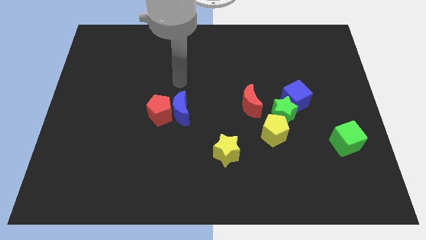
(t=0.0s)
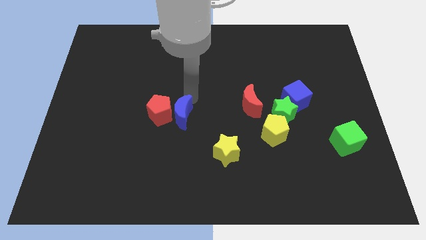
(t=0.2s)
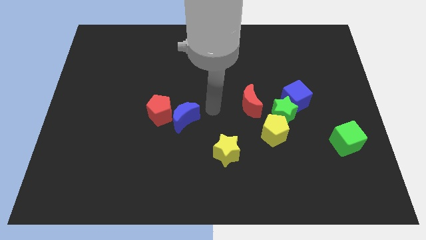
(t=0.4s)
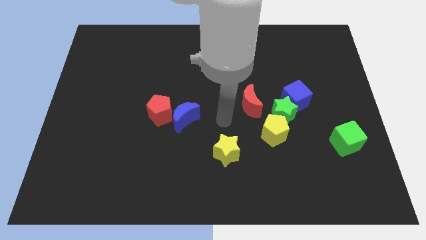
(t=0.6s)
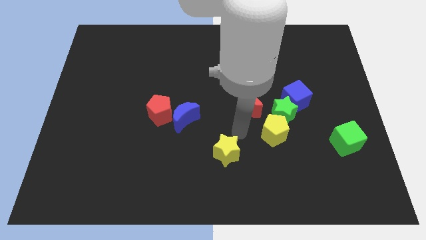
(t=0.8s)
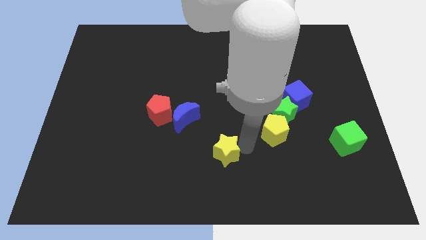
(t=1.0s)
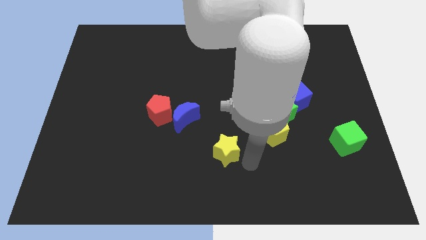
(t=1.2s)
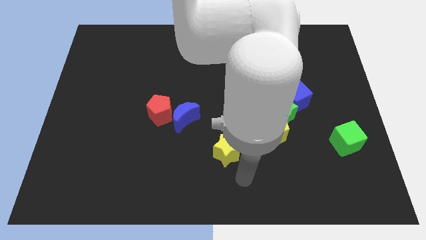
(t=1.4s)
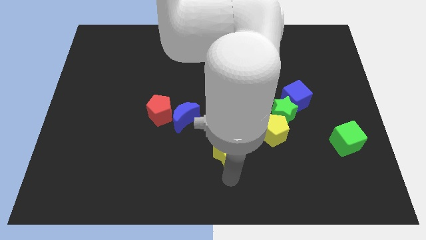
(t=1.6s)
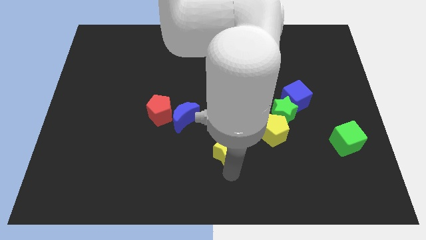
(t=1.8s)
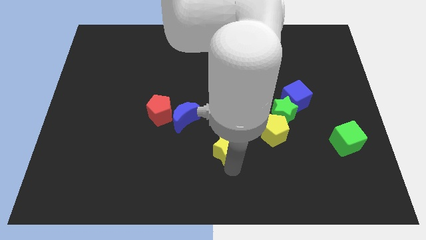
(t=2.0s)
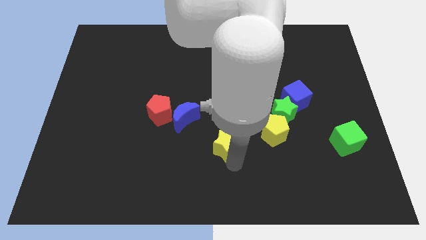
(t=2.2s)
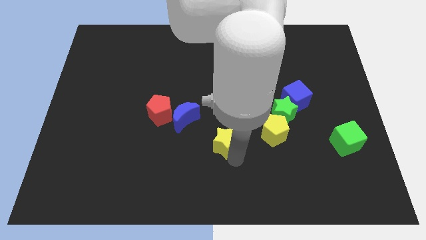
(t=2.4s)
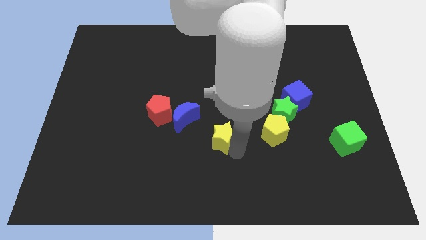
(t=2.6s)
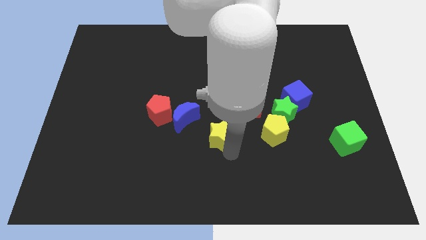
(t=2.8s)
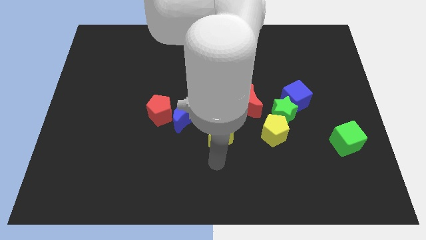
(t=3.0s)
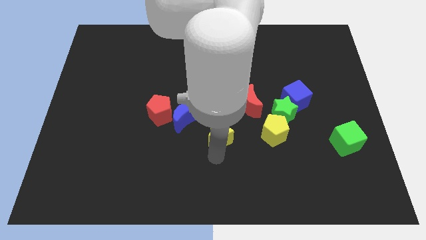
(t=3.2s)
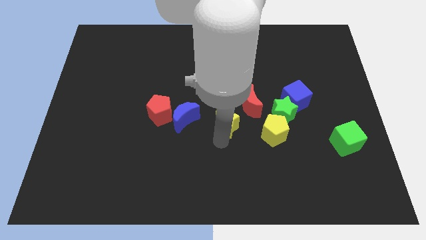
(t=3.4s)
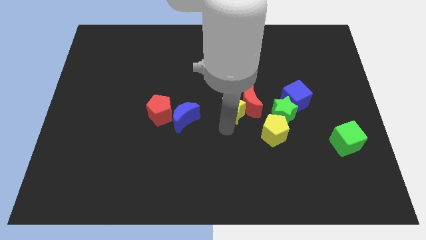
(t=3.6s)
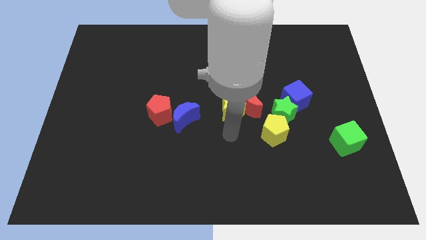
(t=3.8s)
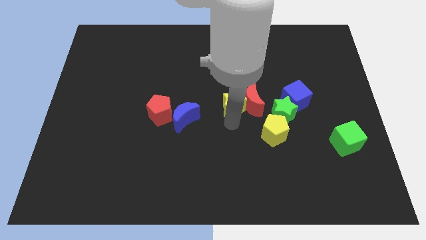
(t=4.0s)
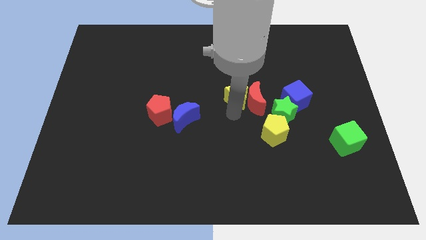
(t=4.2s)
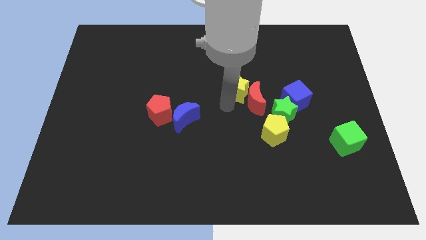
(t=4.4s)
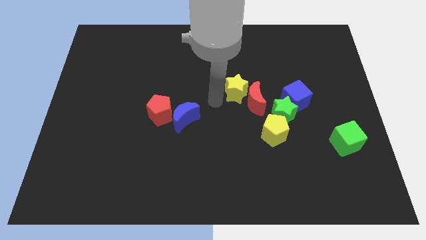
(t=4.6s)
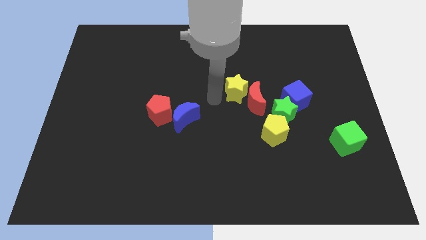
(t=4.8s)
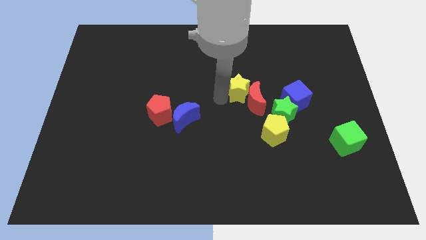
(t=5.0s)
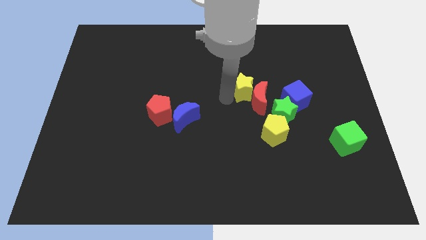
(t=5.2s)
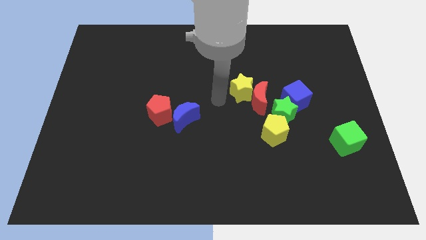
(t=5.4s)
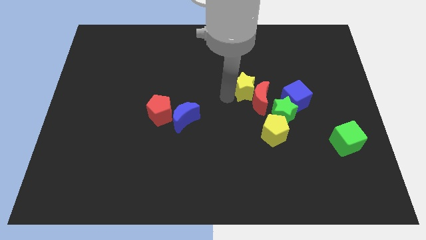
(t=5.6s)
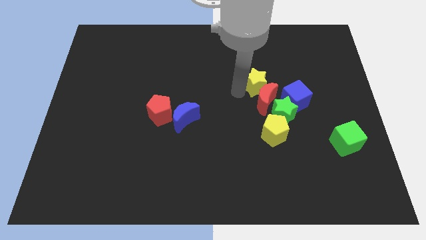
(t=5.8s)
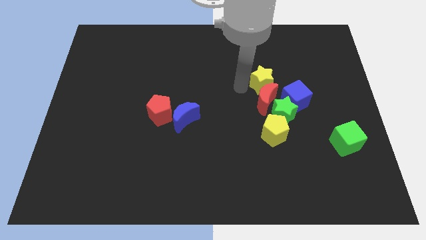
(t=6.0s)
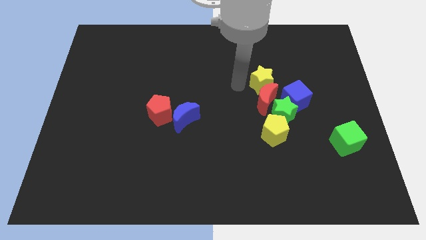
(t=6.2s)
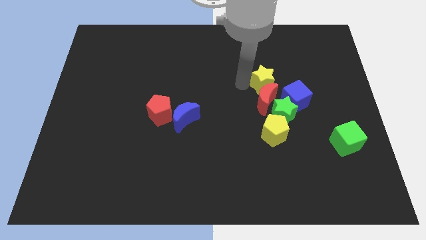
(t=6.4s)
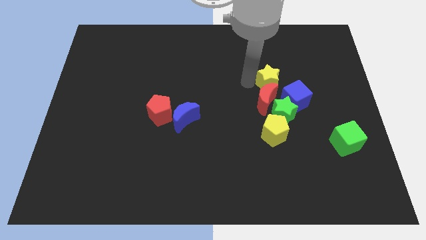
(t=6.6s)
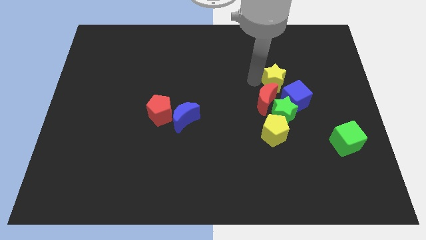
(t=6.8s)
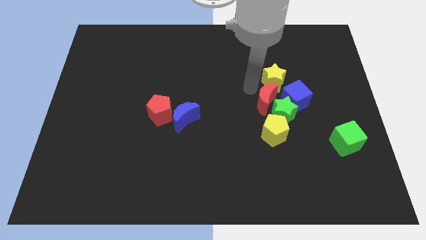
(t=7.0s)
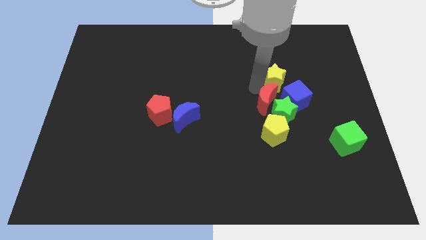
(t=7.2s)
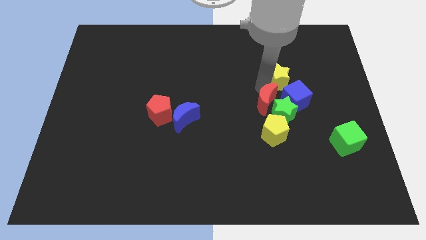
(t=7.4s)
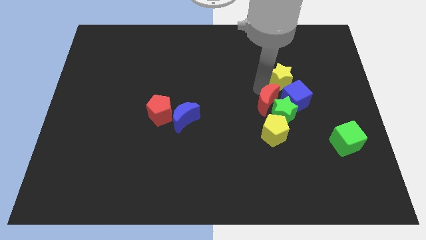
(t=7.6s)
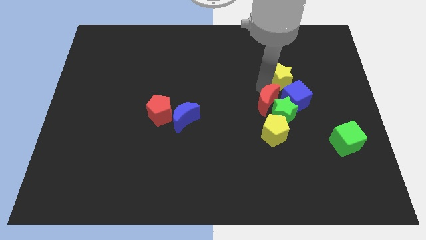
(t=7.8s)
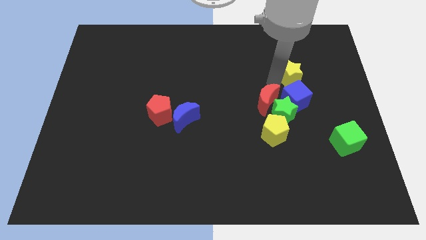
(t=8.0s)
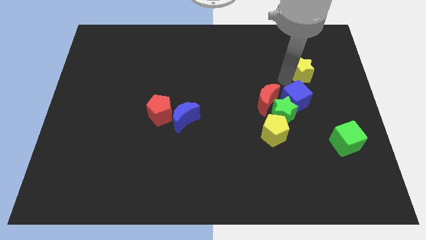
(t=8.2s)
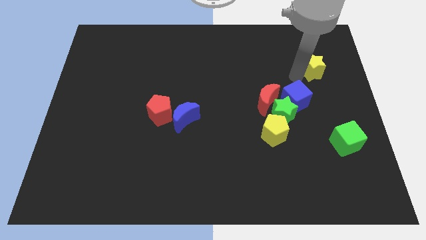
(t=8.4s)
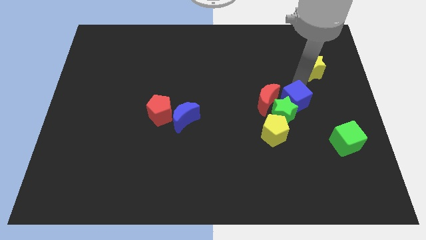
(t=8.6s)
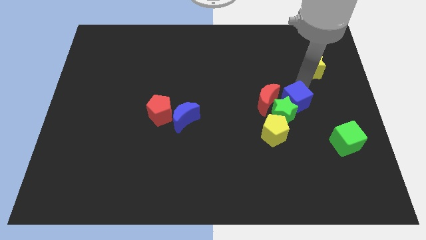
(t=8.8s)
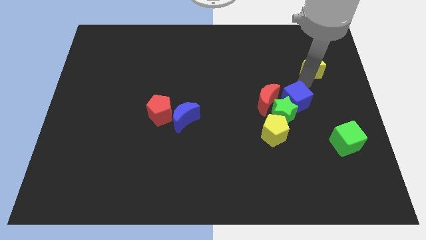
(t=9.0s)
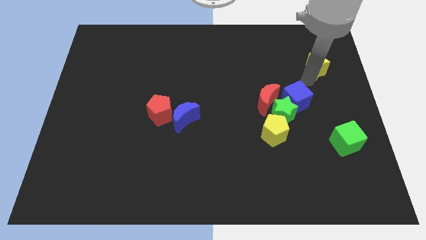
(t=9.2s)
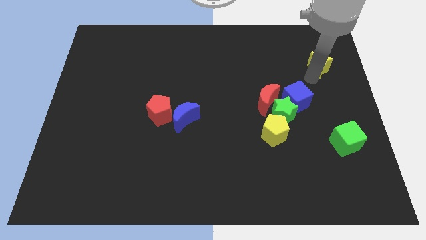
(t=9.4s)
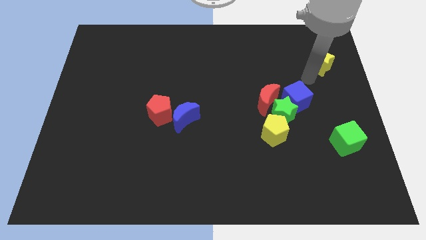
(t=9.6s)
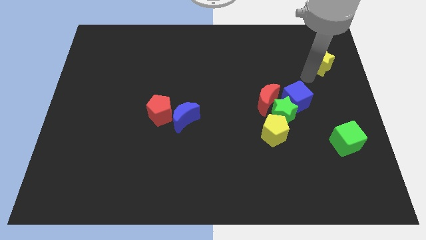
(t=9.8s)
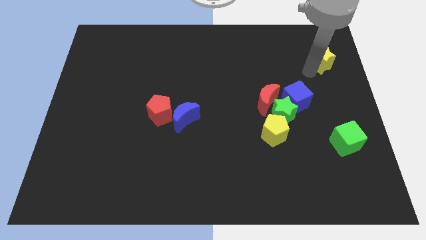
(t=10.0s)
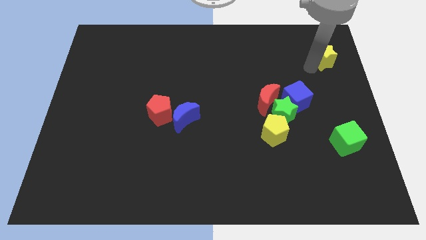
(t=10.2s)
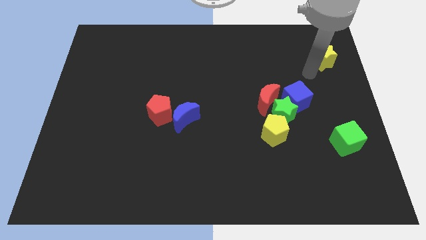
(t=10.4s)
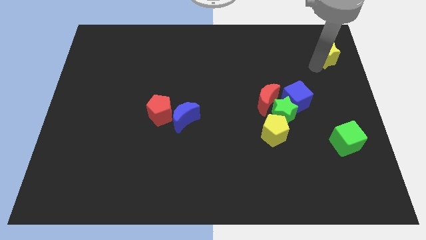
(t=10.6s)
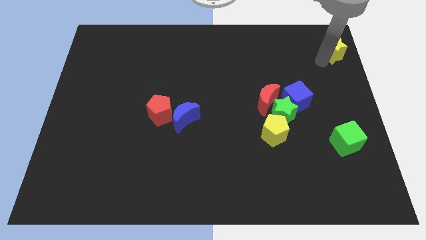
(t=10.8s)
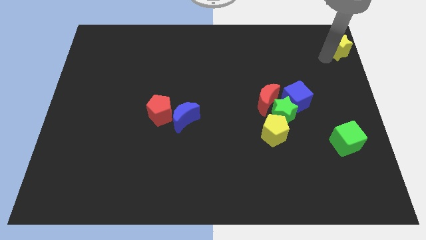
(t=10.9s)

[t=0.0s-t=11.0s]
put the yellow star to the top right

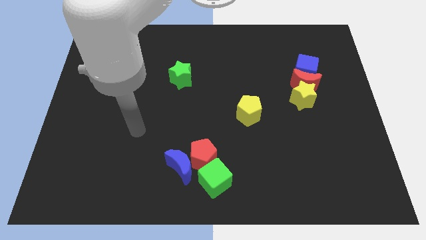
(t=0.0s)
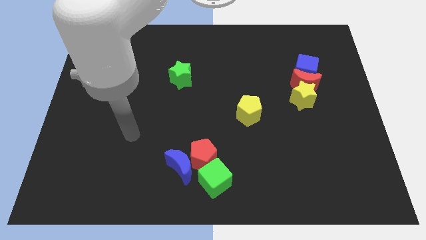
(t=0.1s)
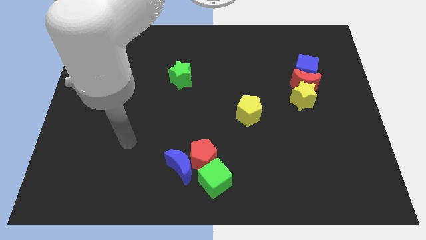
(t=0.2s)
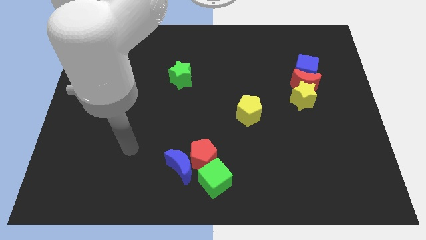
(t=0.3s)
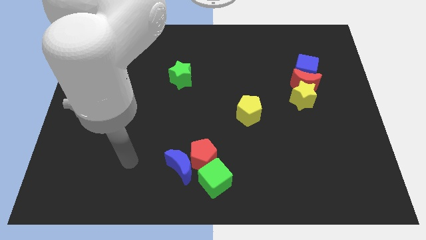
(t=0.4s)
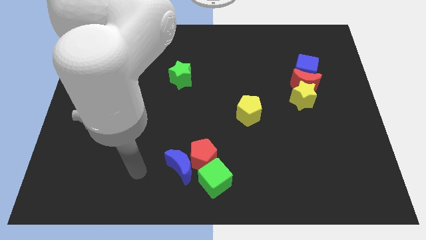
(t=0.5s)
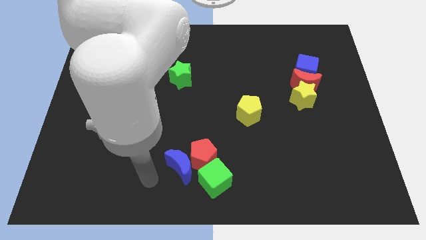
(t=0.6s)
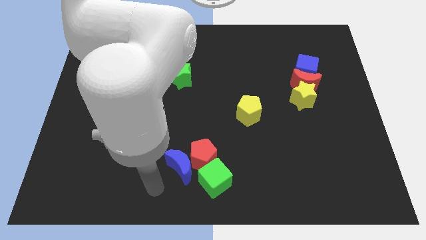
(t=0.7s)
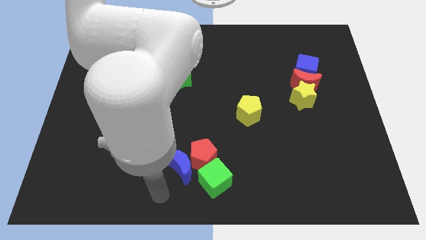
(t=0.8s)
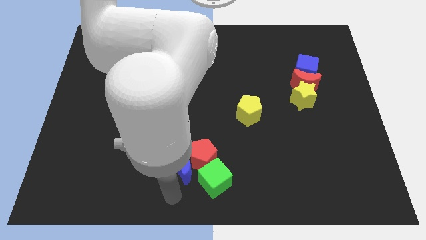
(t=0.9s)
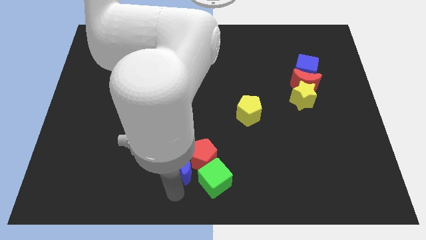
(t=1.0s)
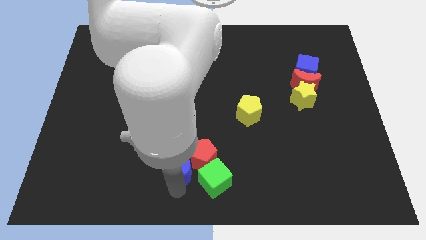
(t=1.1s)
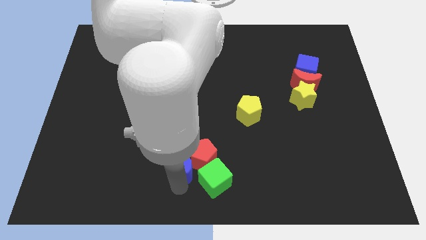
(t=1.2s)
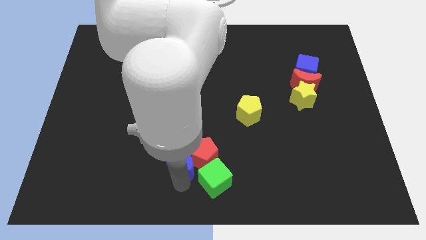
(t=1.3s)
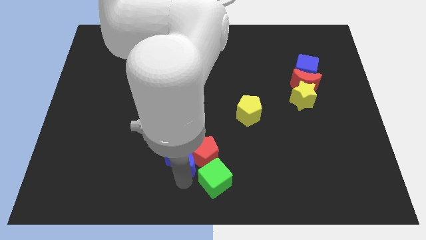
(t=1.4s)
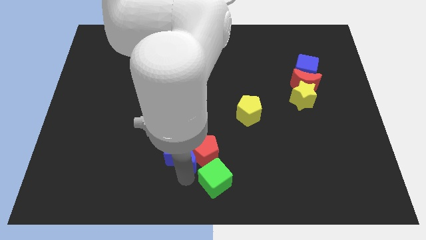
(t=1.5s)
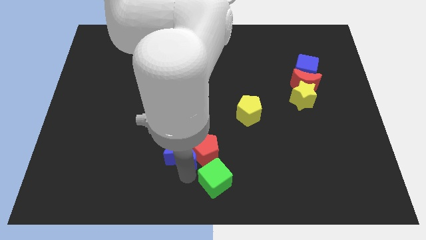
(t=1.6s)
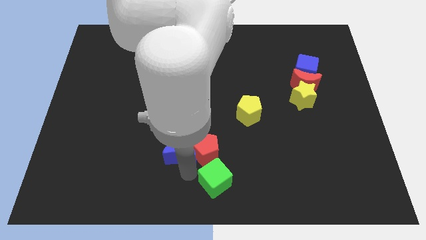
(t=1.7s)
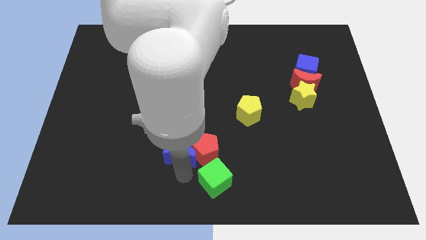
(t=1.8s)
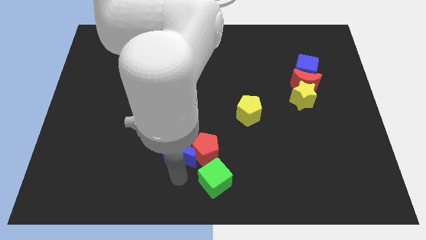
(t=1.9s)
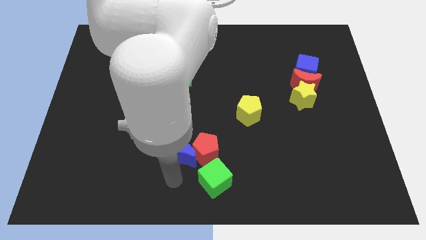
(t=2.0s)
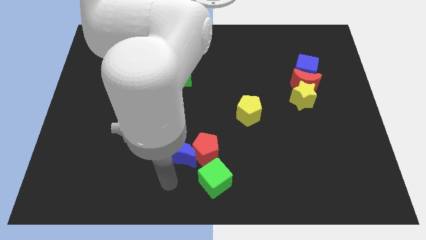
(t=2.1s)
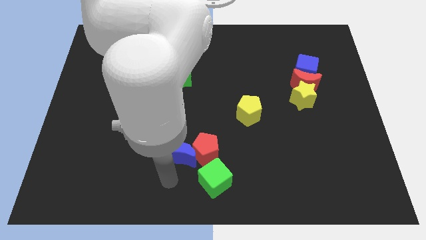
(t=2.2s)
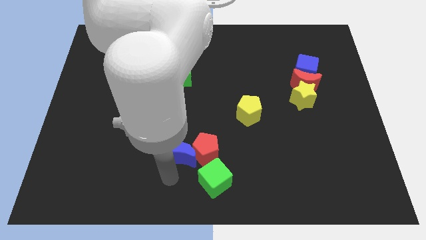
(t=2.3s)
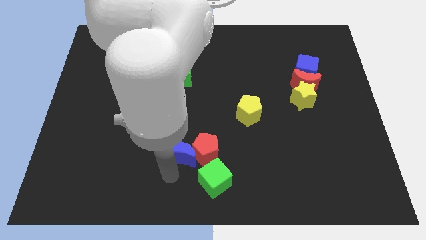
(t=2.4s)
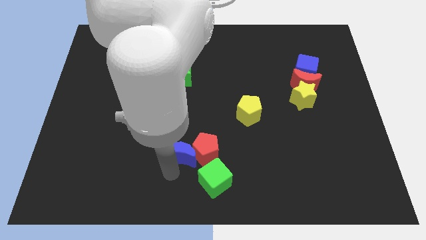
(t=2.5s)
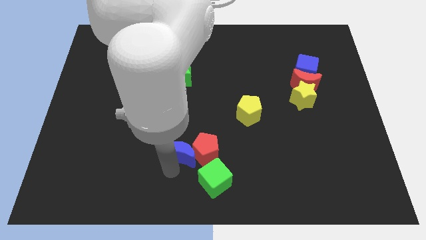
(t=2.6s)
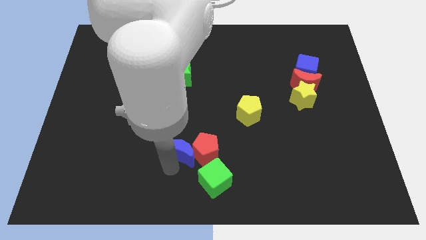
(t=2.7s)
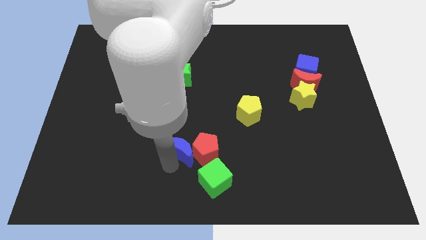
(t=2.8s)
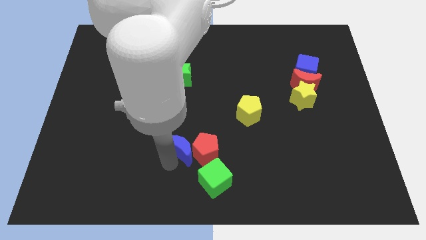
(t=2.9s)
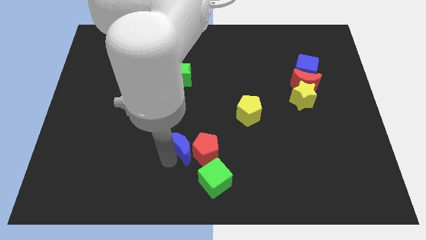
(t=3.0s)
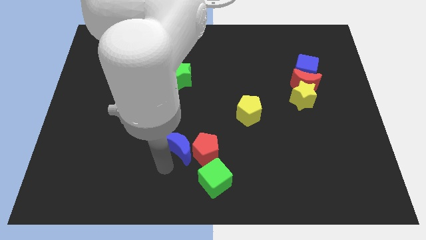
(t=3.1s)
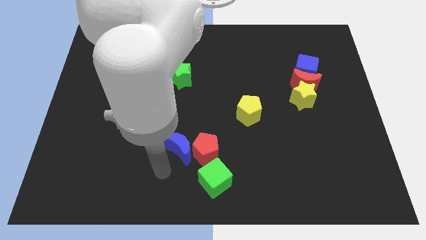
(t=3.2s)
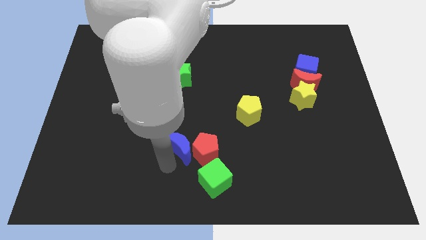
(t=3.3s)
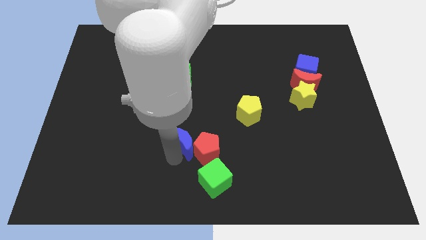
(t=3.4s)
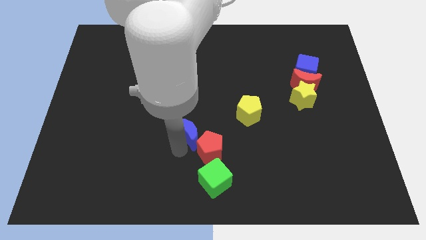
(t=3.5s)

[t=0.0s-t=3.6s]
move the blue moon to the middle
